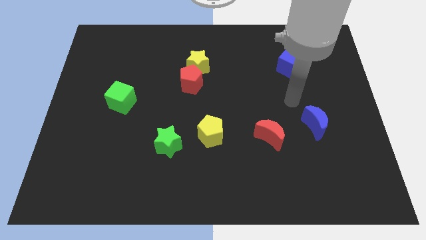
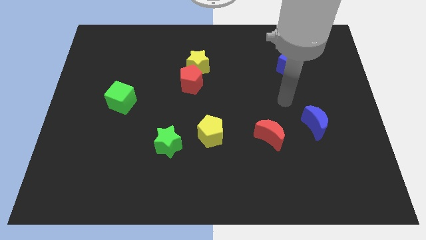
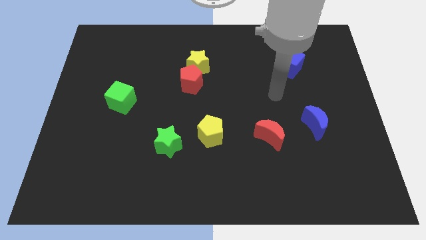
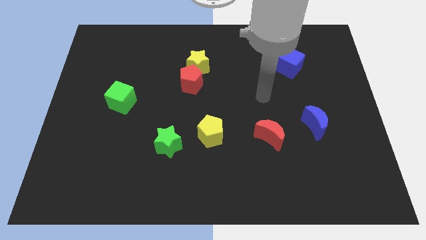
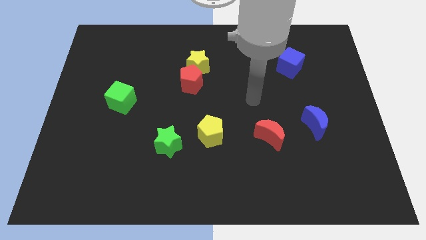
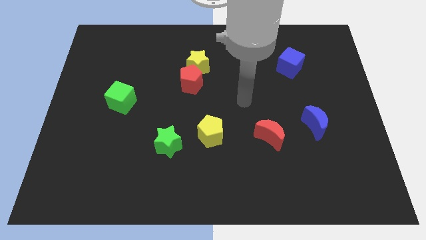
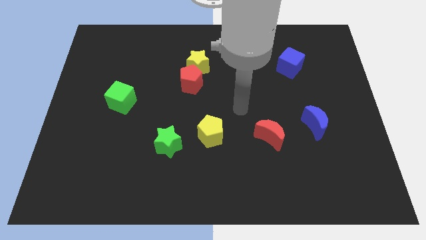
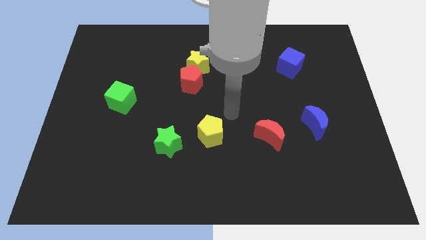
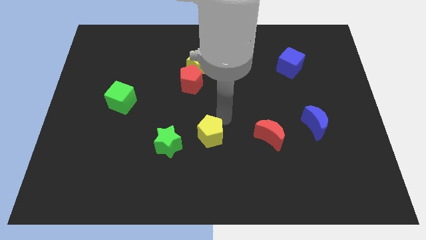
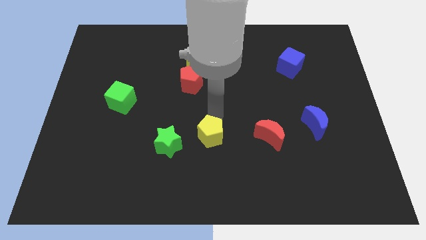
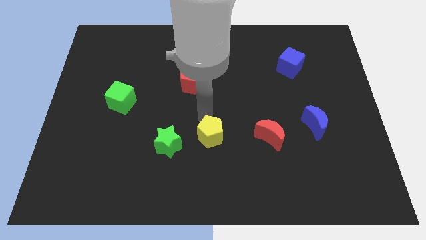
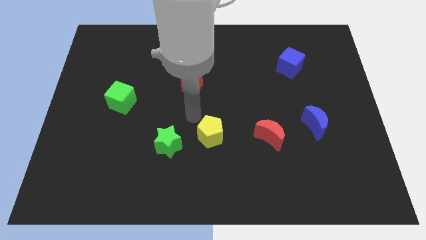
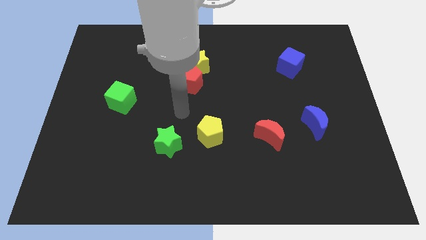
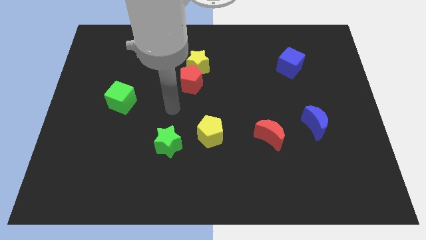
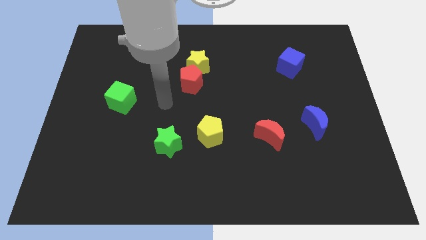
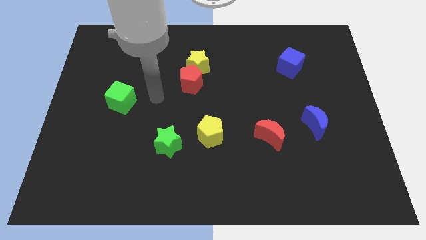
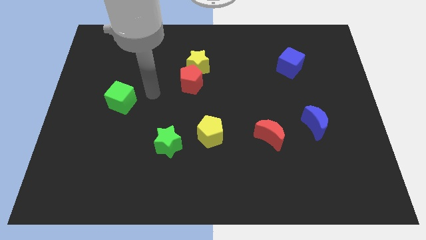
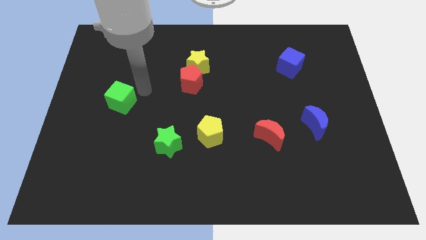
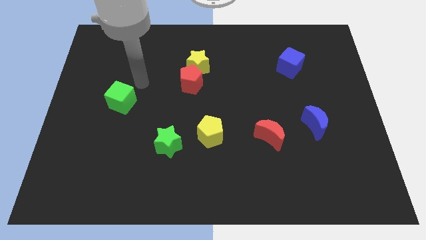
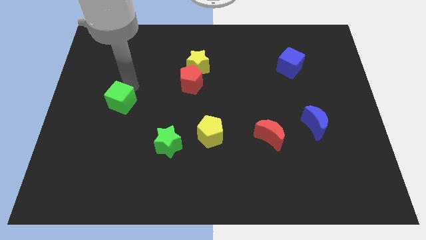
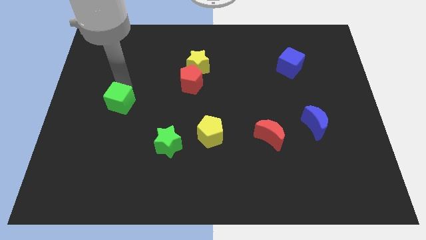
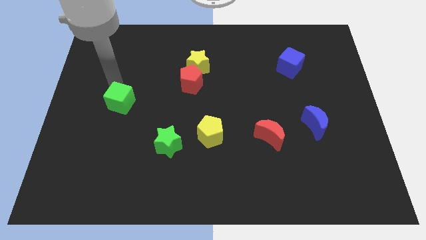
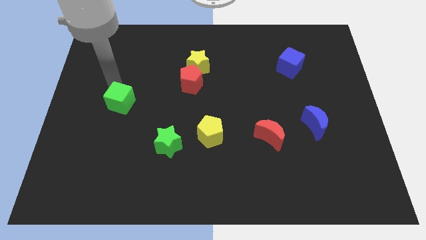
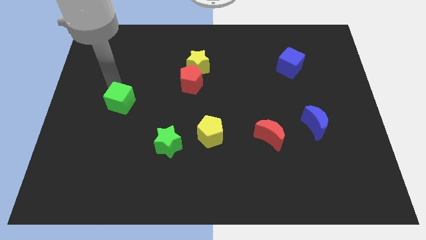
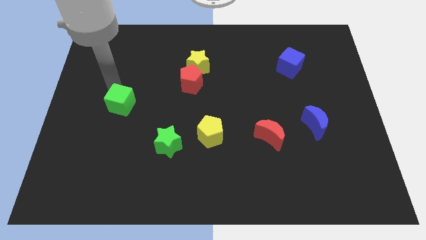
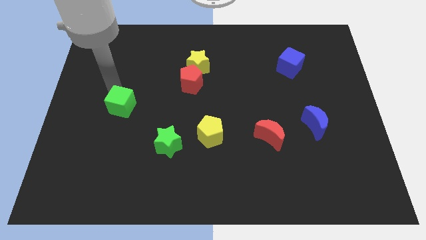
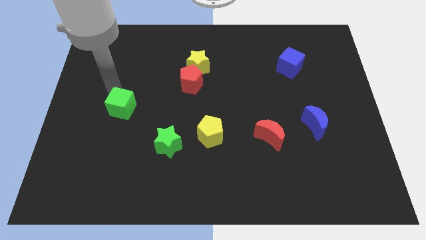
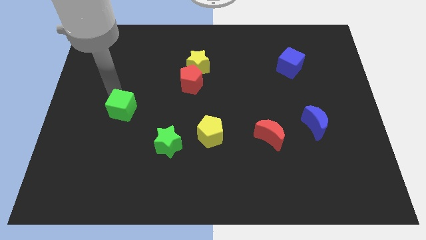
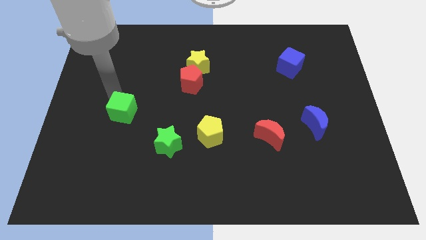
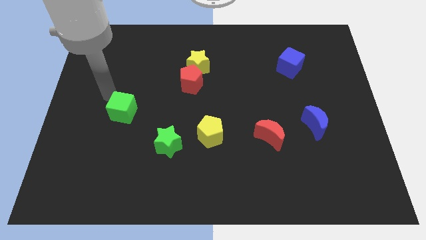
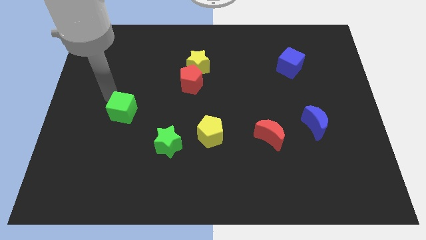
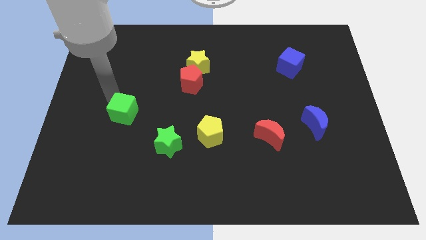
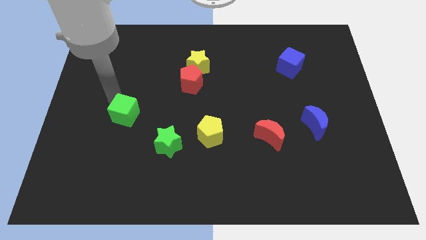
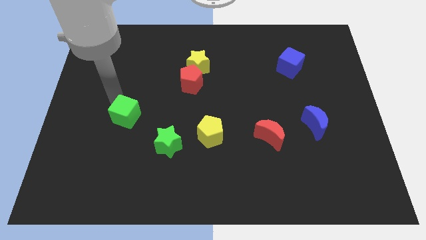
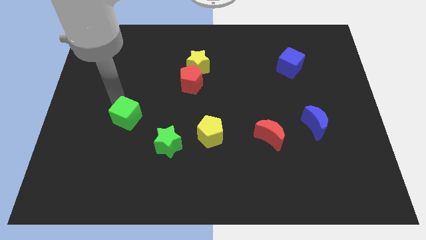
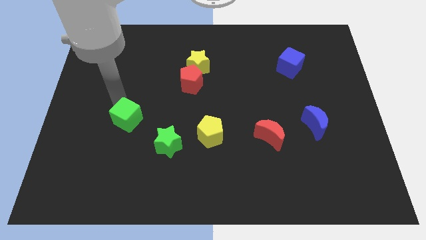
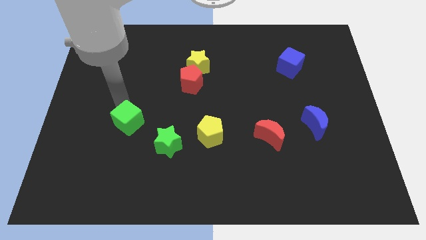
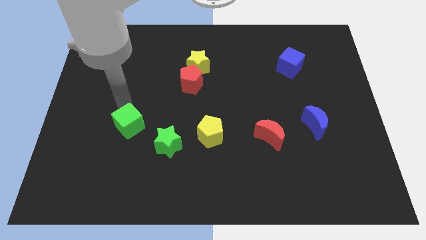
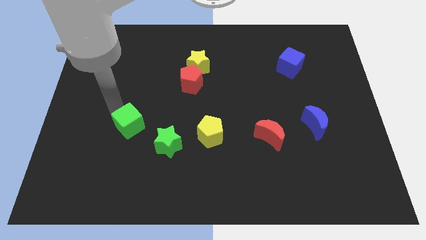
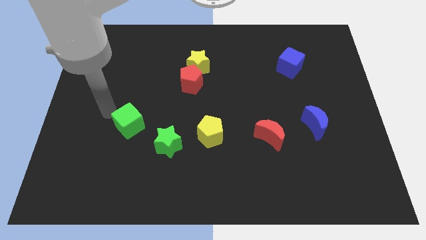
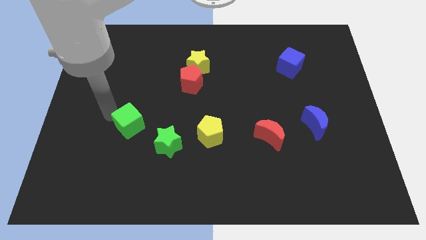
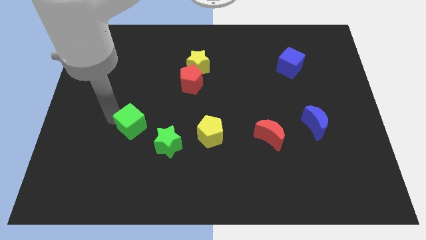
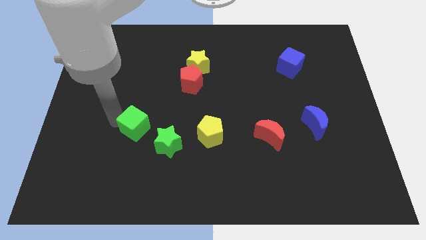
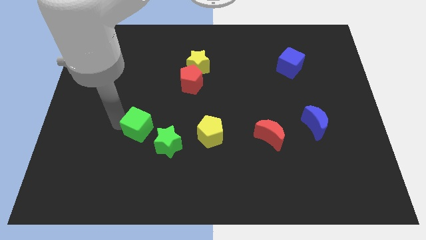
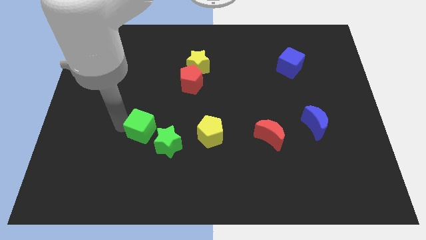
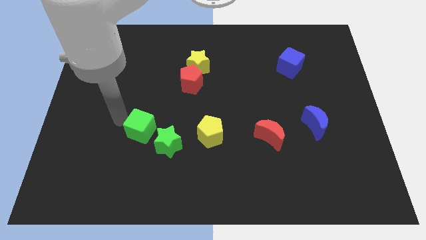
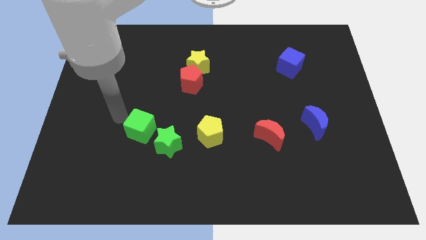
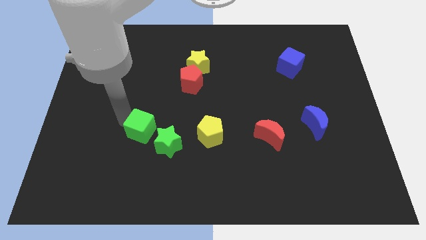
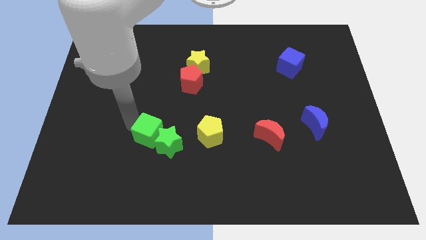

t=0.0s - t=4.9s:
move the green cube close to the green star

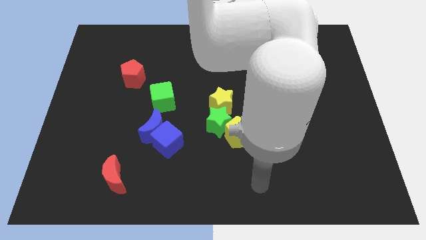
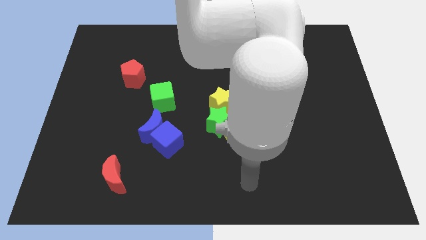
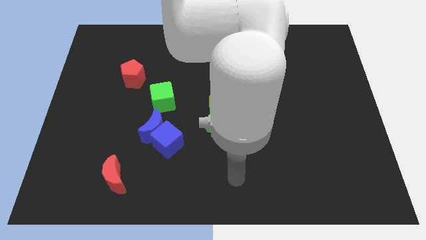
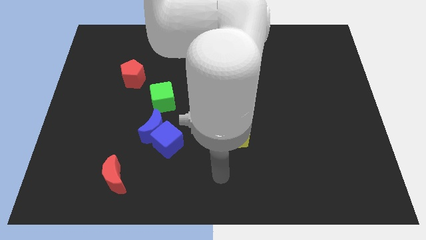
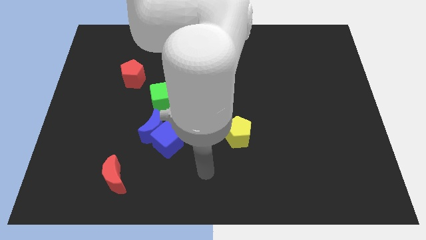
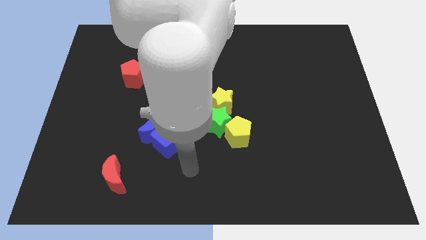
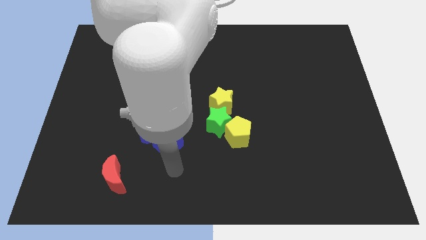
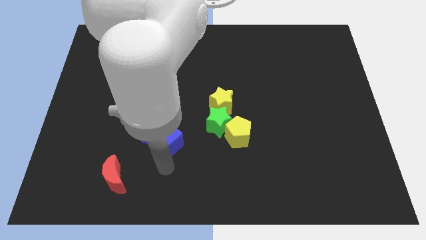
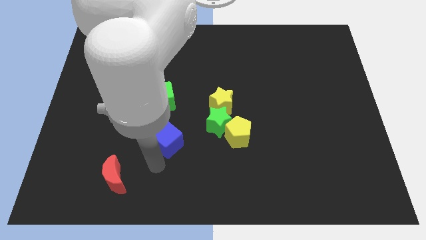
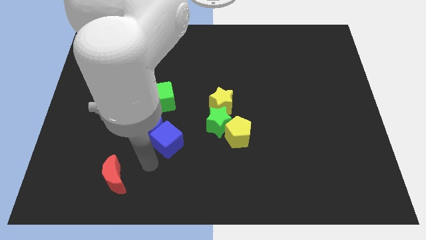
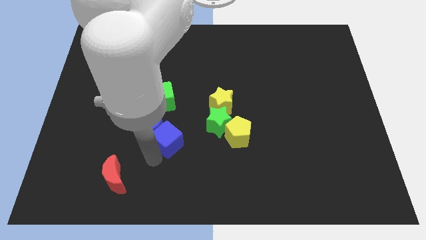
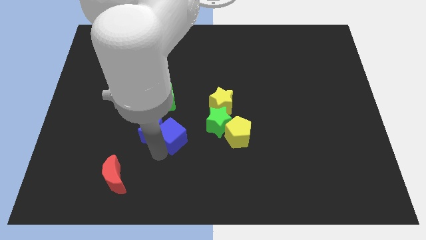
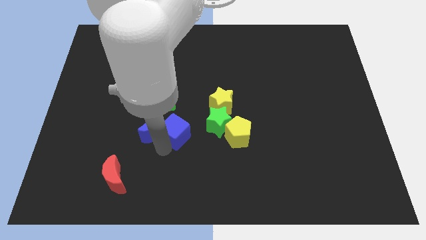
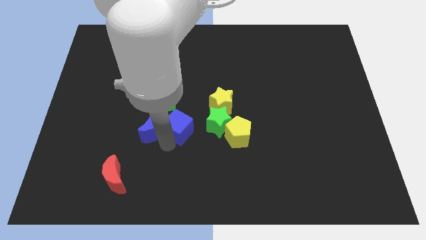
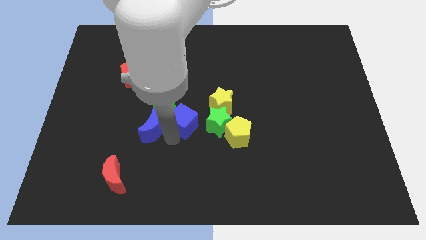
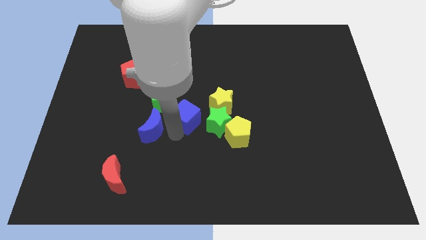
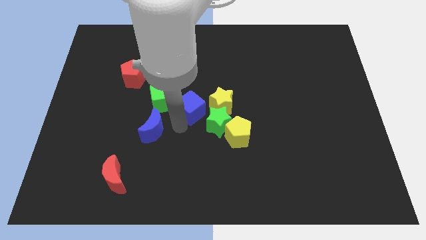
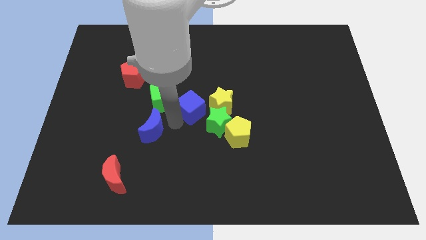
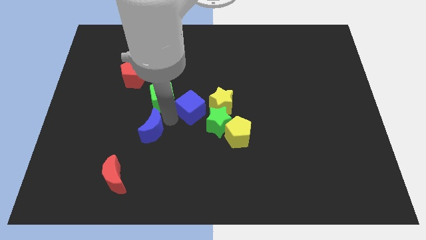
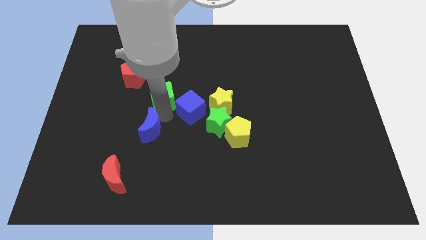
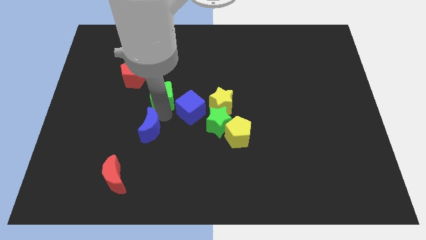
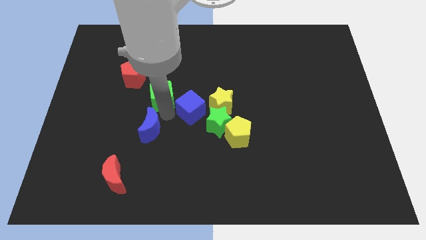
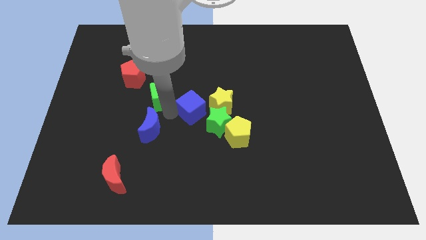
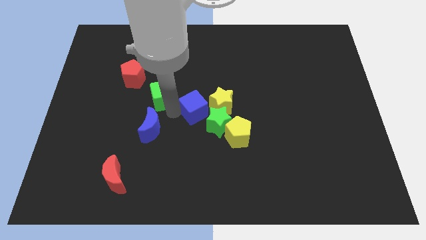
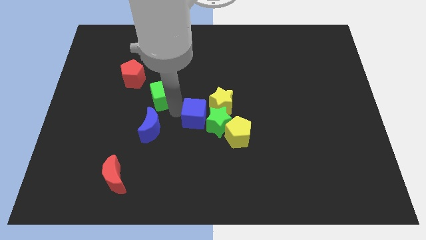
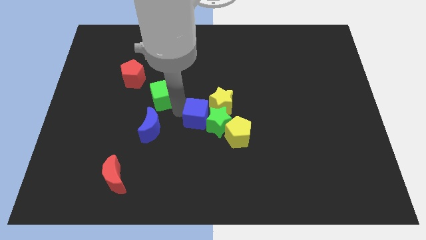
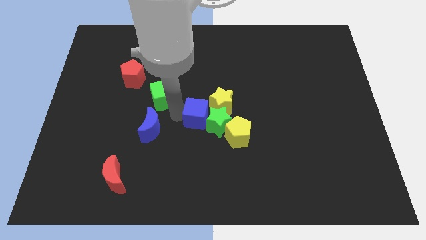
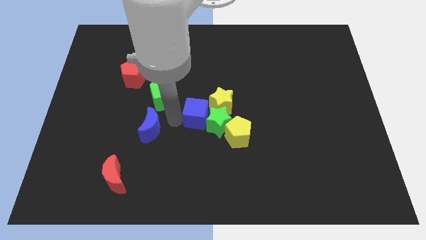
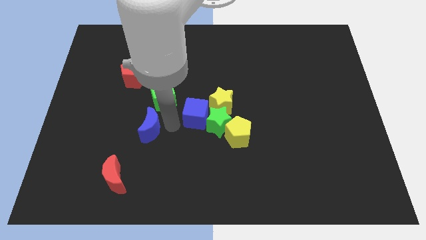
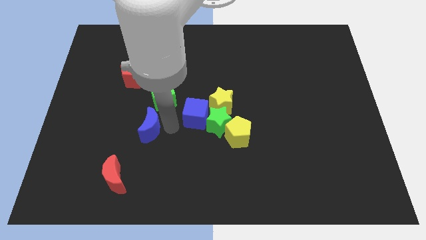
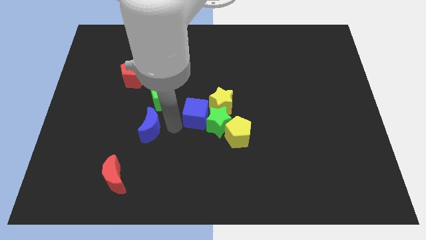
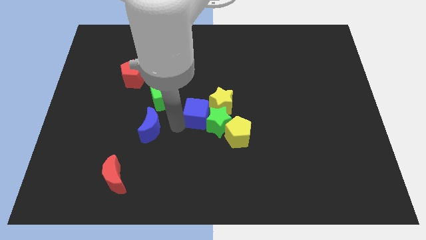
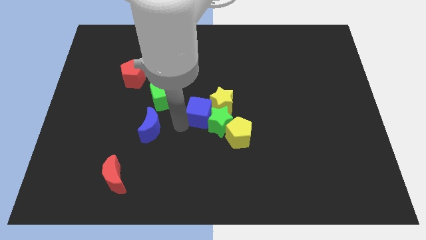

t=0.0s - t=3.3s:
slide the blue cube next to the yellow star
